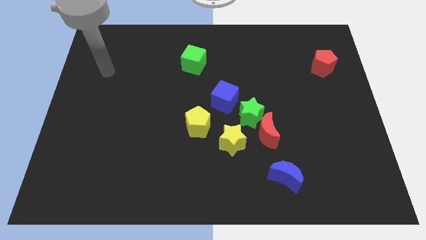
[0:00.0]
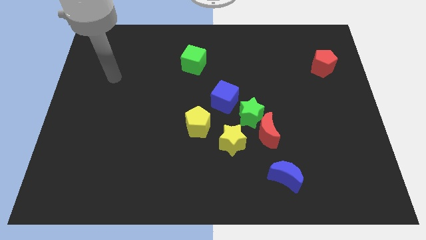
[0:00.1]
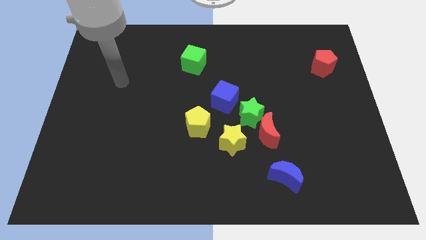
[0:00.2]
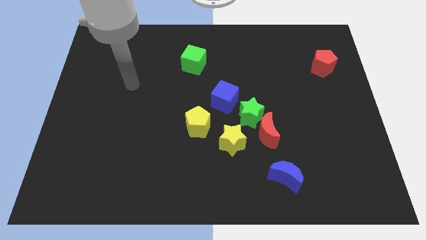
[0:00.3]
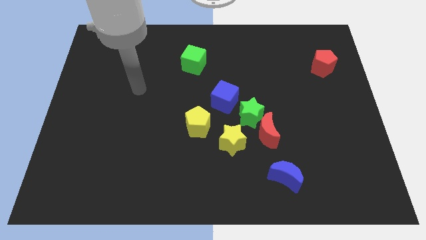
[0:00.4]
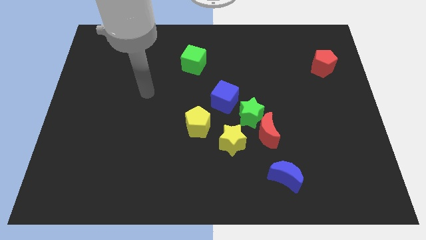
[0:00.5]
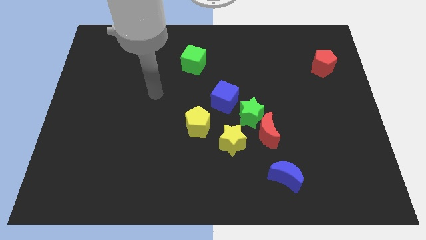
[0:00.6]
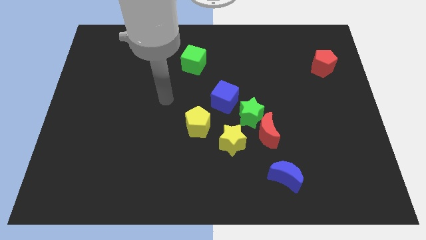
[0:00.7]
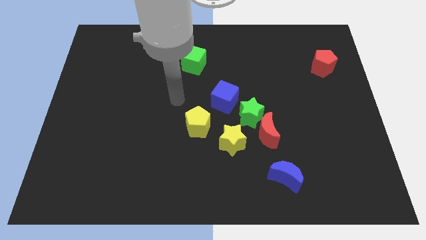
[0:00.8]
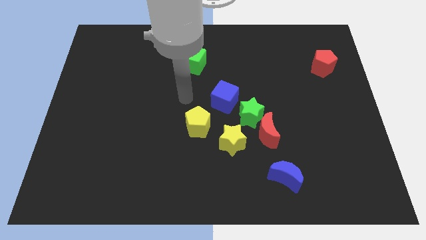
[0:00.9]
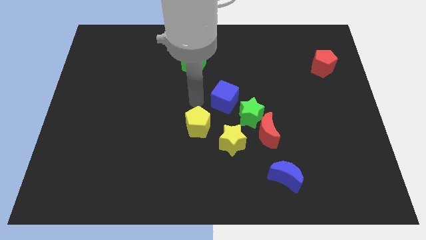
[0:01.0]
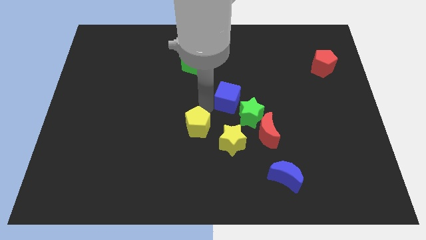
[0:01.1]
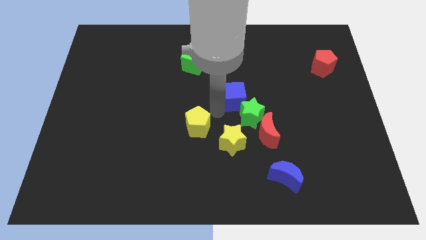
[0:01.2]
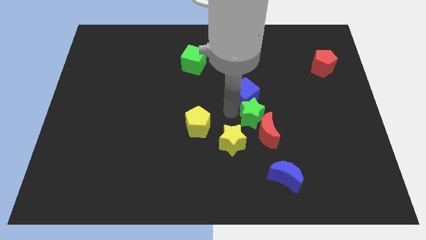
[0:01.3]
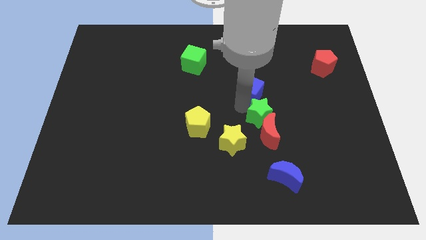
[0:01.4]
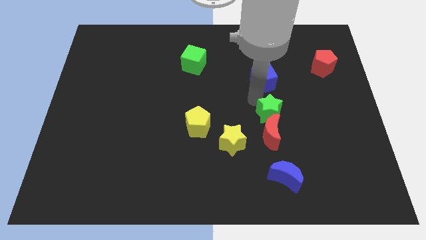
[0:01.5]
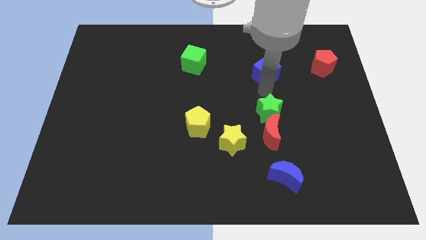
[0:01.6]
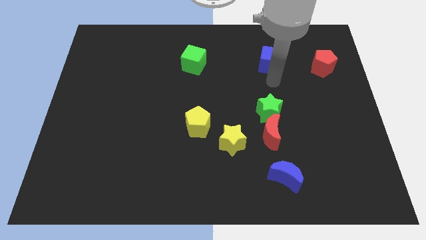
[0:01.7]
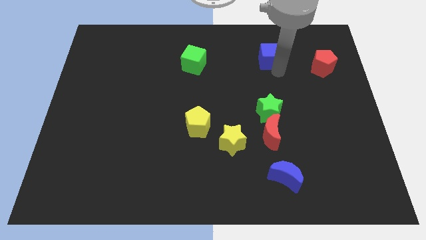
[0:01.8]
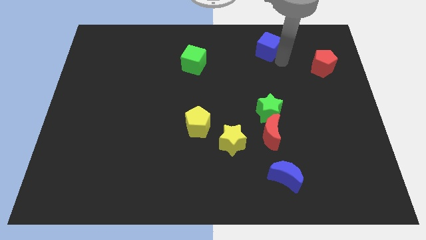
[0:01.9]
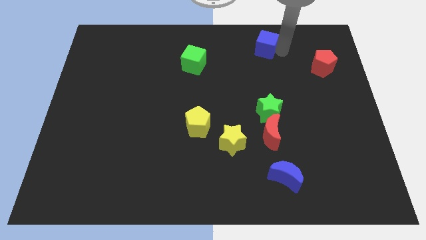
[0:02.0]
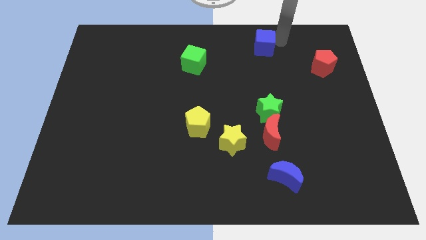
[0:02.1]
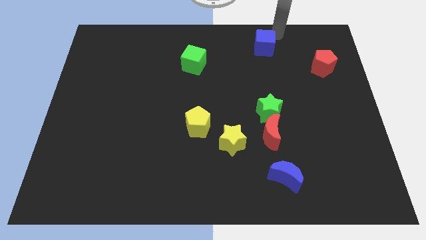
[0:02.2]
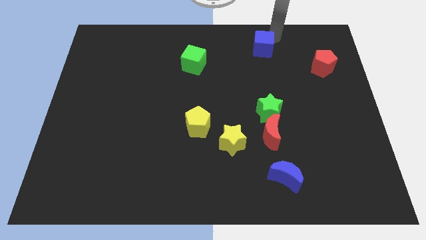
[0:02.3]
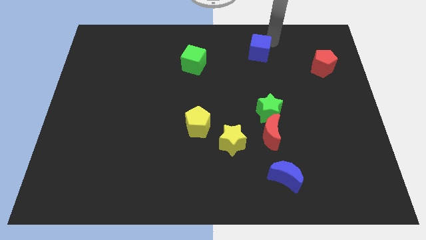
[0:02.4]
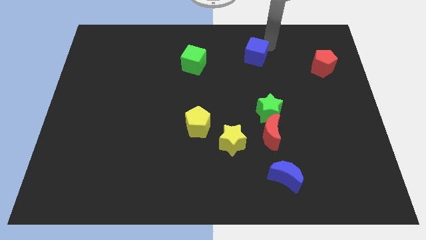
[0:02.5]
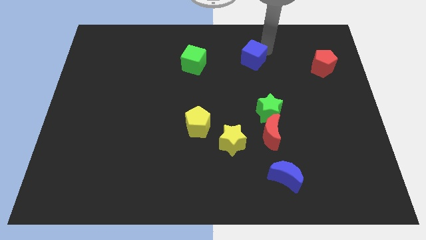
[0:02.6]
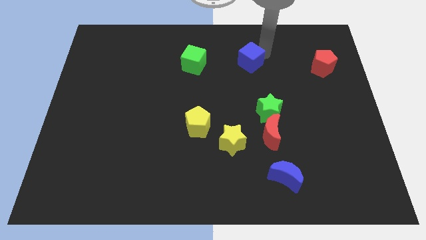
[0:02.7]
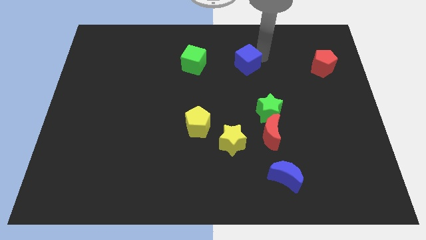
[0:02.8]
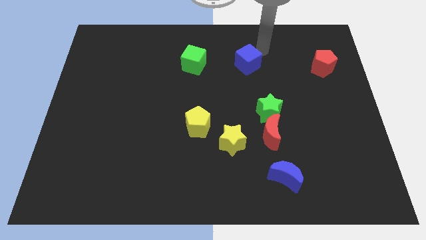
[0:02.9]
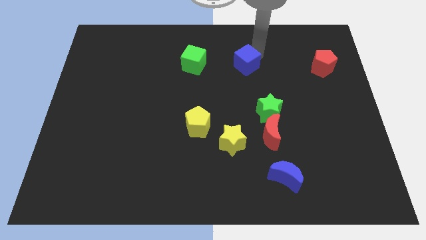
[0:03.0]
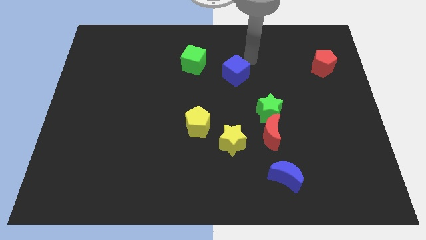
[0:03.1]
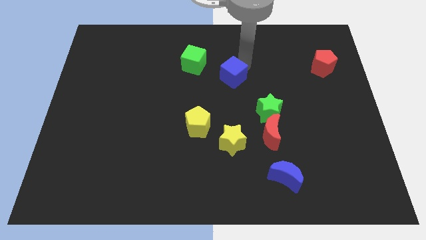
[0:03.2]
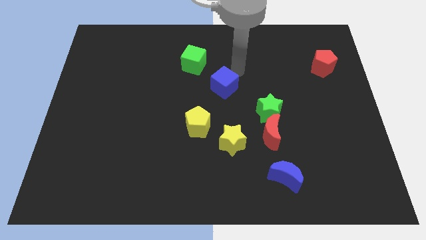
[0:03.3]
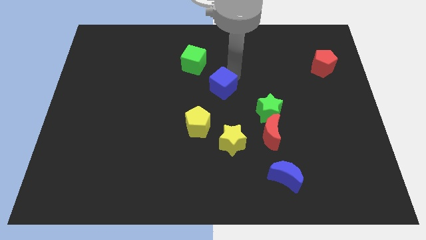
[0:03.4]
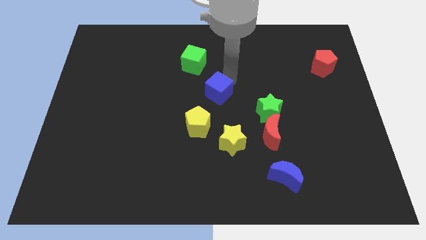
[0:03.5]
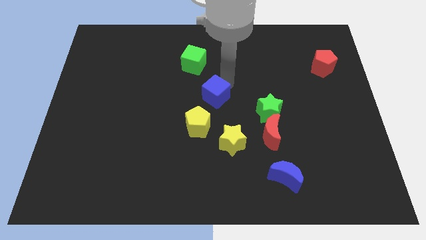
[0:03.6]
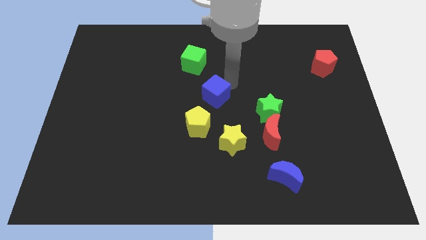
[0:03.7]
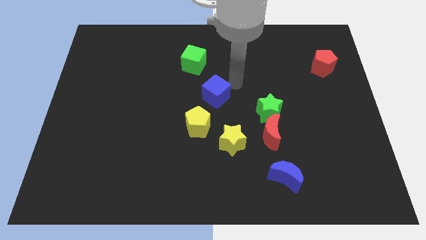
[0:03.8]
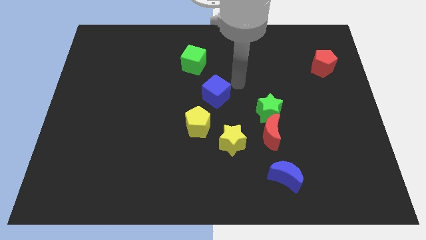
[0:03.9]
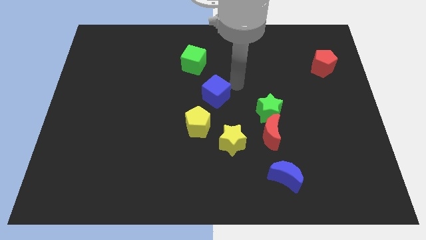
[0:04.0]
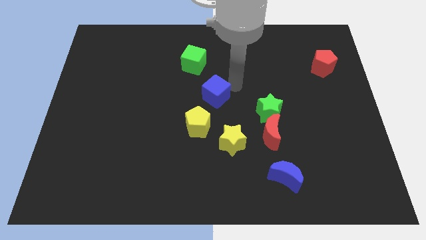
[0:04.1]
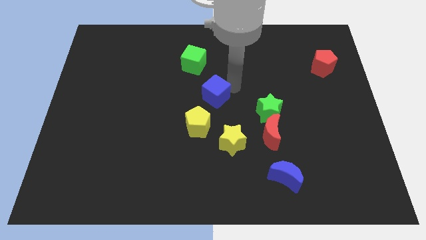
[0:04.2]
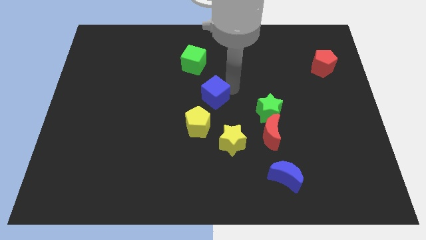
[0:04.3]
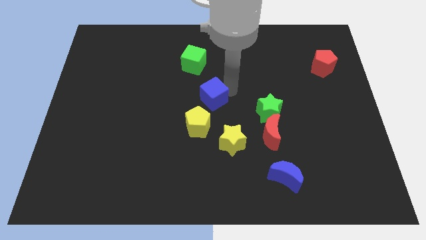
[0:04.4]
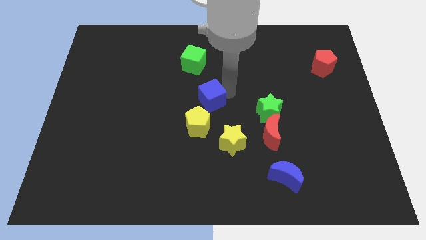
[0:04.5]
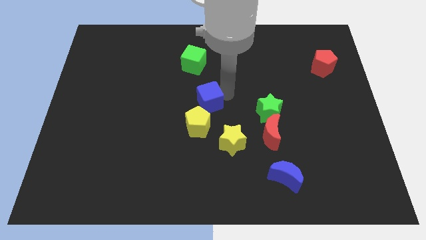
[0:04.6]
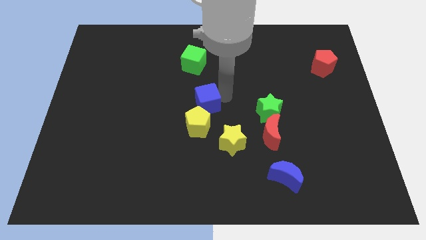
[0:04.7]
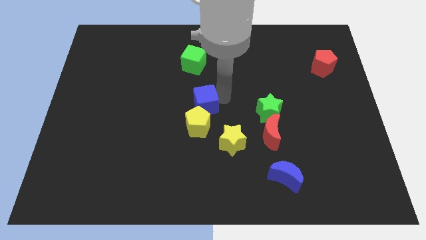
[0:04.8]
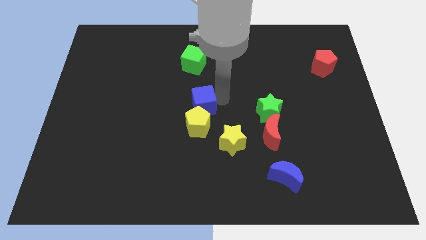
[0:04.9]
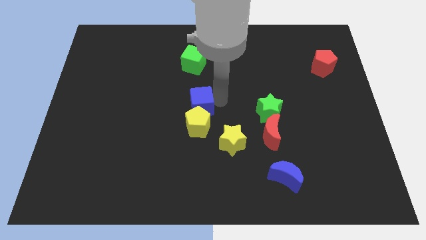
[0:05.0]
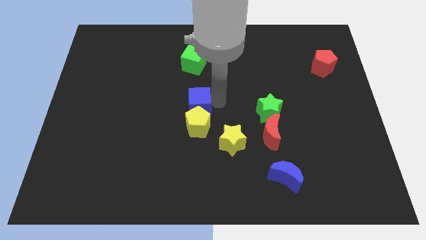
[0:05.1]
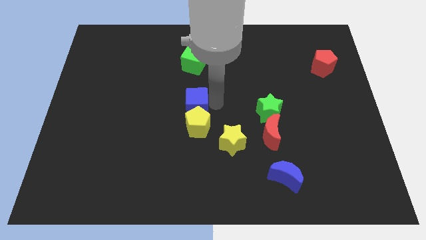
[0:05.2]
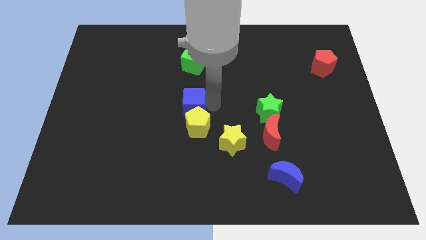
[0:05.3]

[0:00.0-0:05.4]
push the blue cube somewhat left

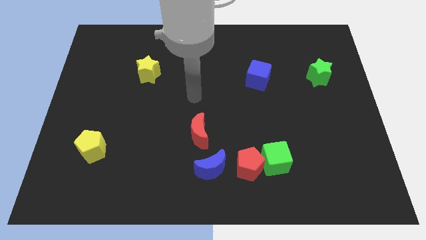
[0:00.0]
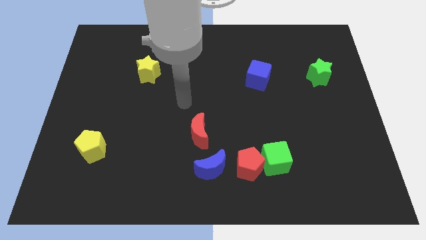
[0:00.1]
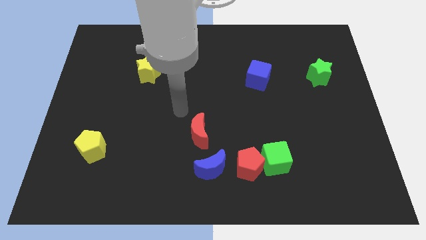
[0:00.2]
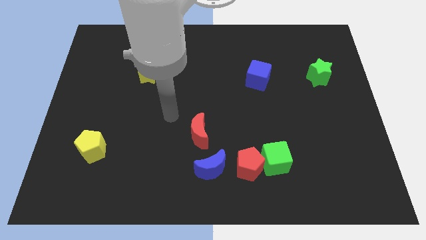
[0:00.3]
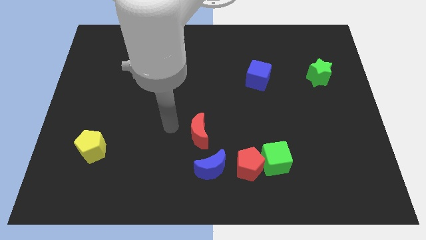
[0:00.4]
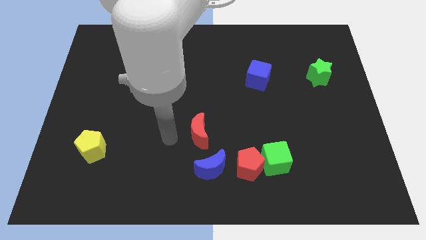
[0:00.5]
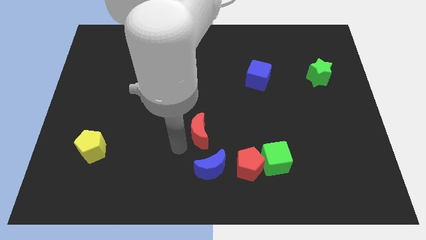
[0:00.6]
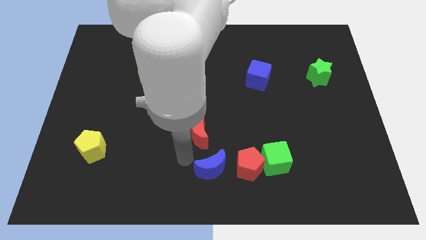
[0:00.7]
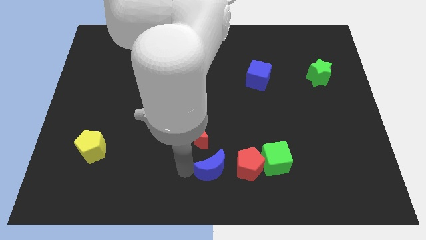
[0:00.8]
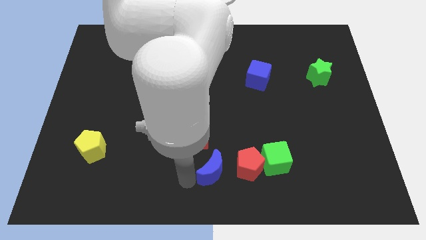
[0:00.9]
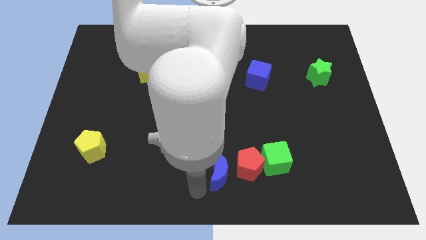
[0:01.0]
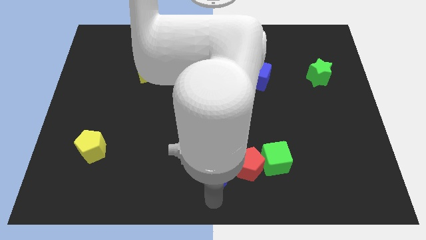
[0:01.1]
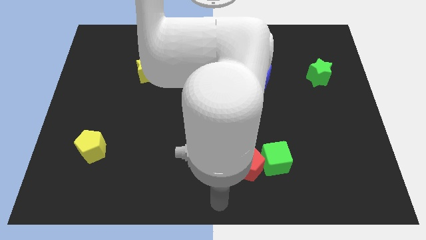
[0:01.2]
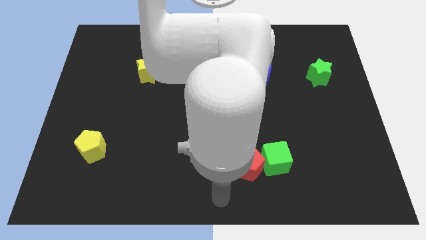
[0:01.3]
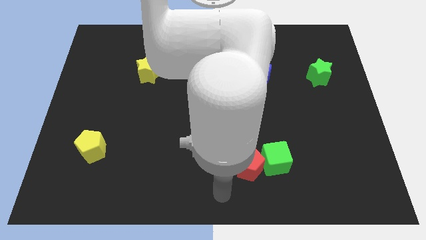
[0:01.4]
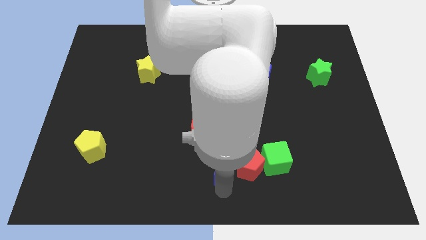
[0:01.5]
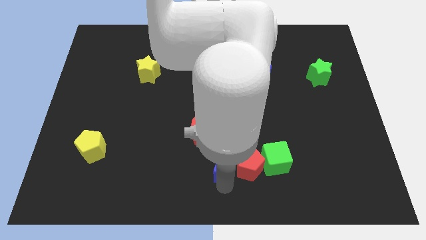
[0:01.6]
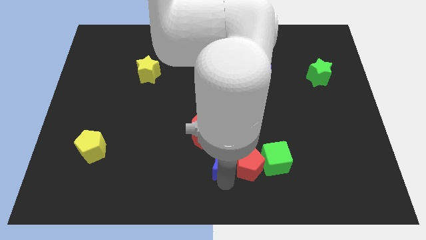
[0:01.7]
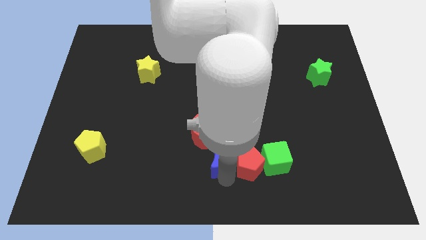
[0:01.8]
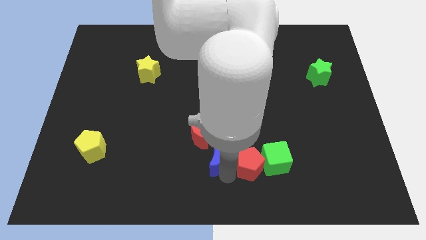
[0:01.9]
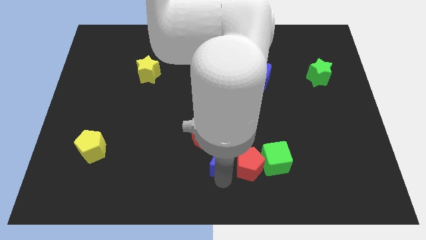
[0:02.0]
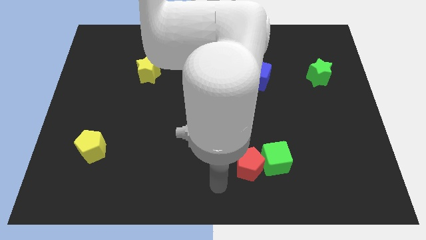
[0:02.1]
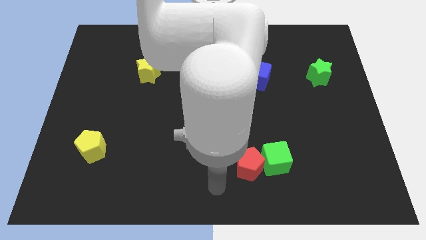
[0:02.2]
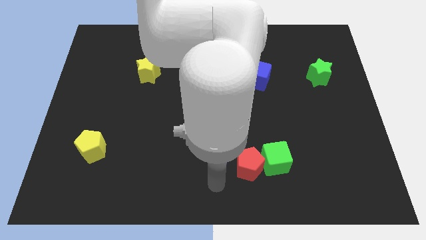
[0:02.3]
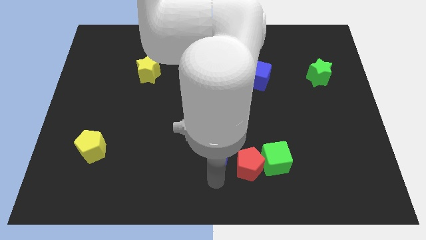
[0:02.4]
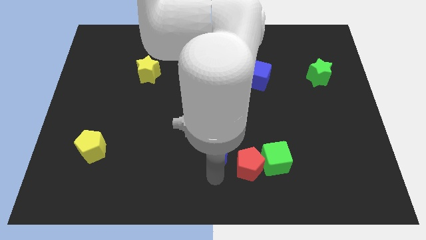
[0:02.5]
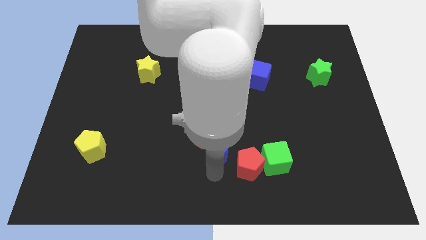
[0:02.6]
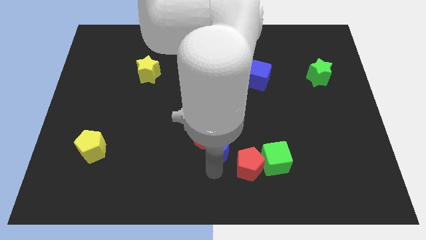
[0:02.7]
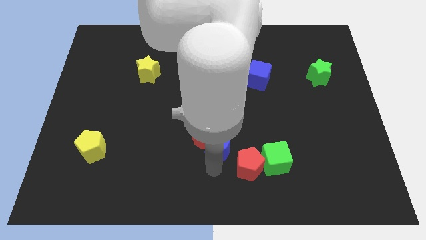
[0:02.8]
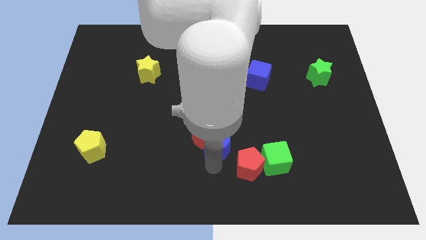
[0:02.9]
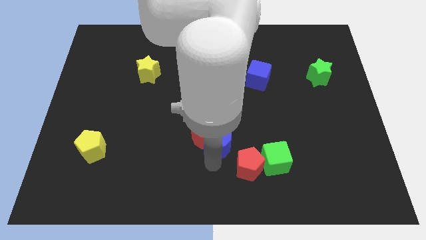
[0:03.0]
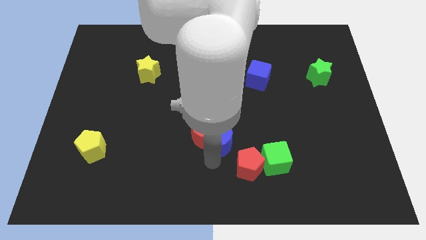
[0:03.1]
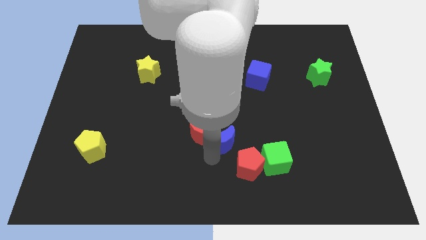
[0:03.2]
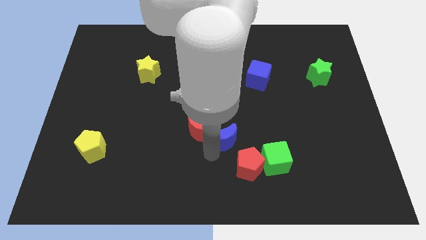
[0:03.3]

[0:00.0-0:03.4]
slightly slide the blue moon up
